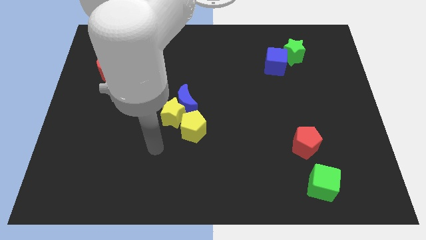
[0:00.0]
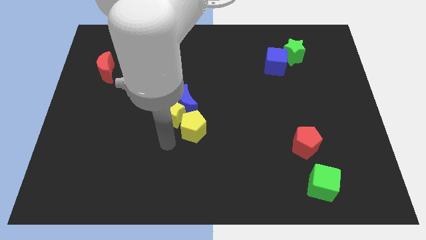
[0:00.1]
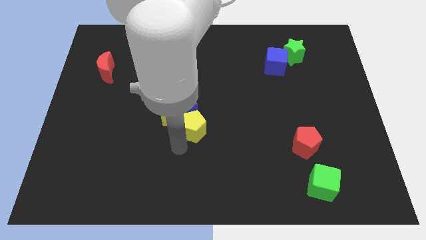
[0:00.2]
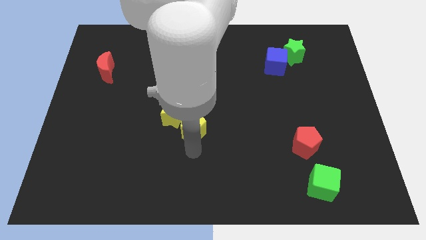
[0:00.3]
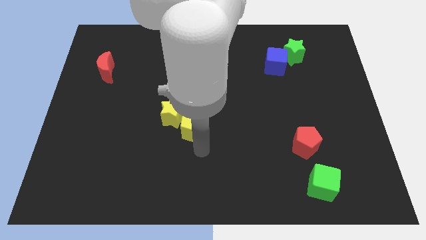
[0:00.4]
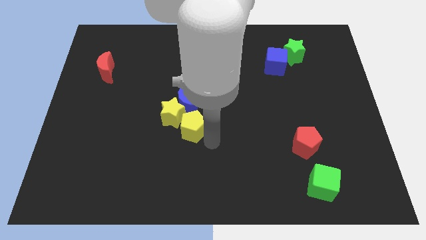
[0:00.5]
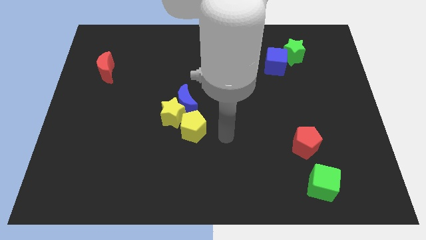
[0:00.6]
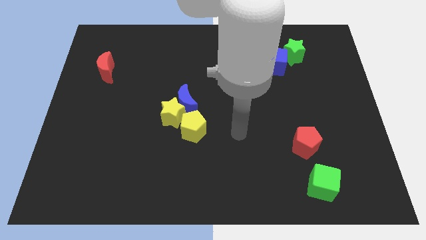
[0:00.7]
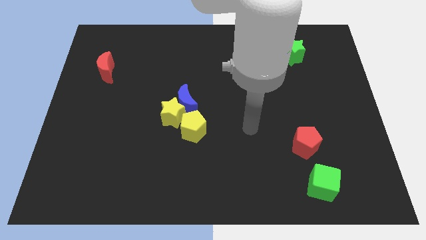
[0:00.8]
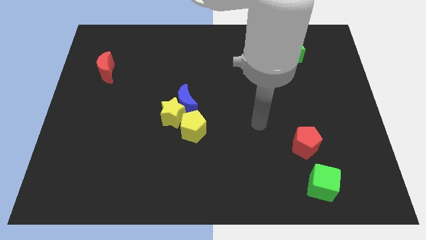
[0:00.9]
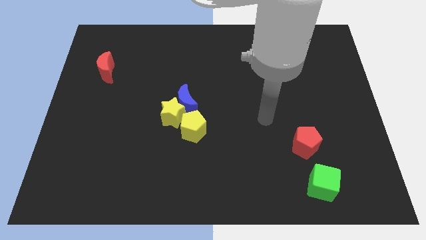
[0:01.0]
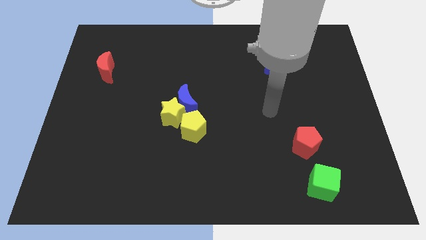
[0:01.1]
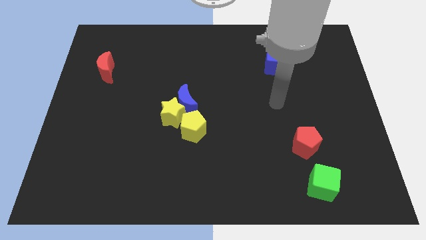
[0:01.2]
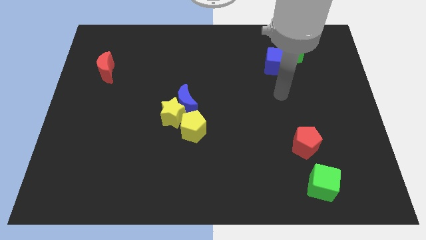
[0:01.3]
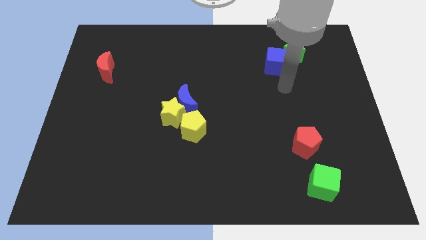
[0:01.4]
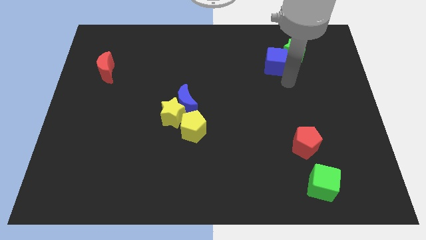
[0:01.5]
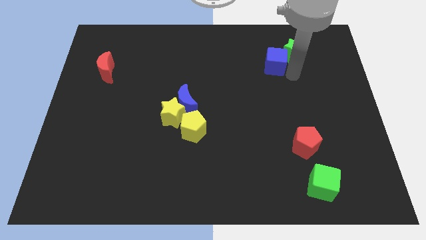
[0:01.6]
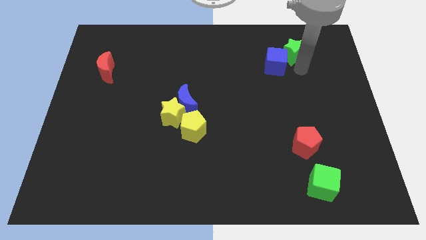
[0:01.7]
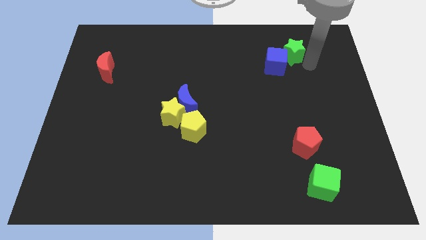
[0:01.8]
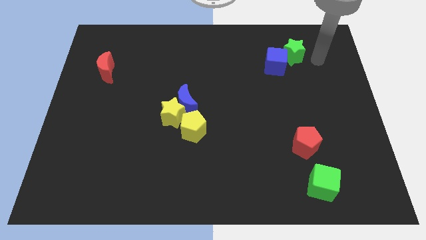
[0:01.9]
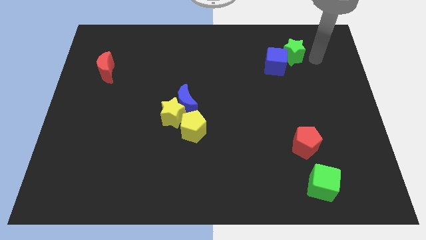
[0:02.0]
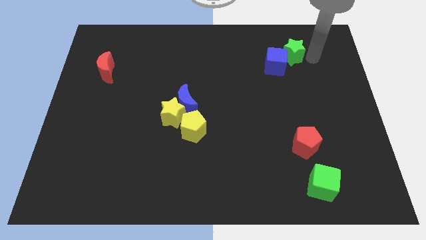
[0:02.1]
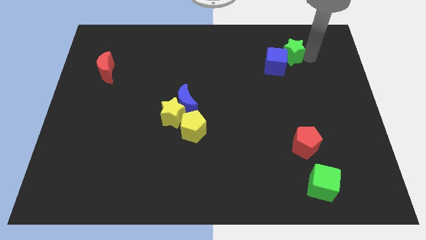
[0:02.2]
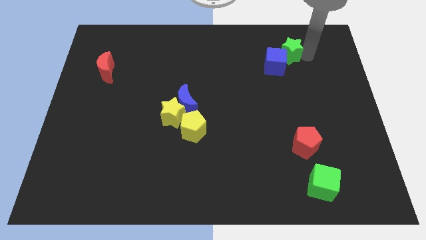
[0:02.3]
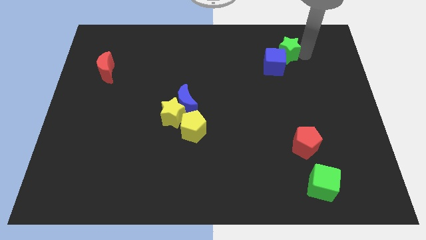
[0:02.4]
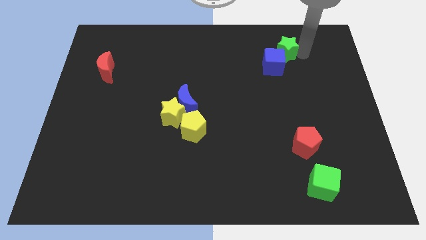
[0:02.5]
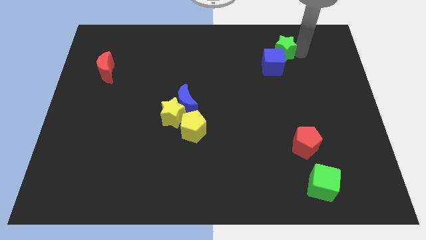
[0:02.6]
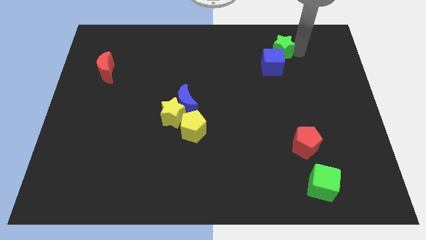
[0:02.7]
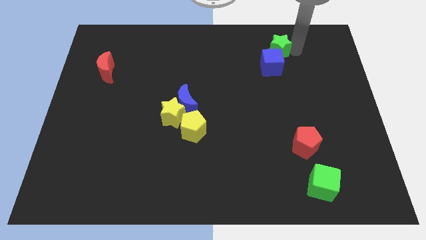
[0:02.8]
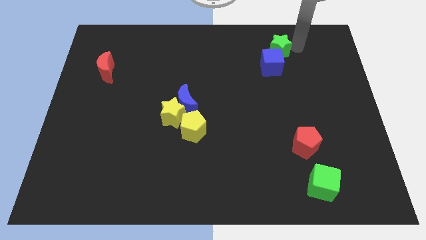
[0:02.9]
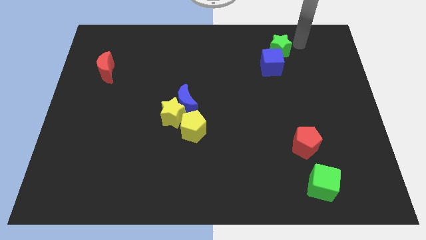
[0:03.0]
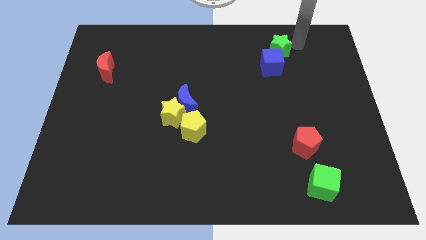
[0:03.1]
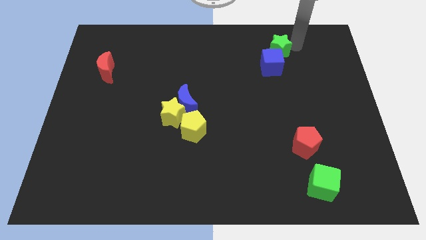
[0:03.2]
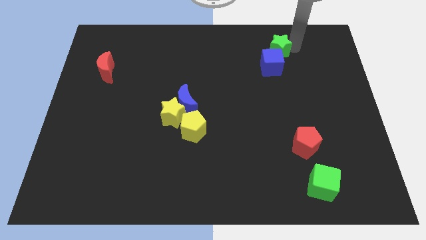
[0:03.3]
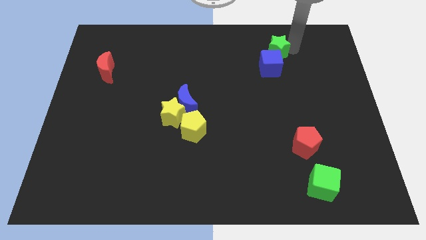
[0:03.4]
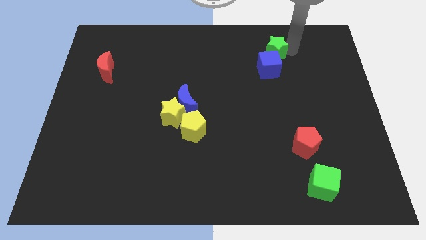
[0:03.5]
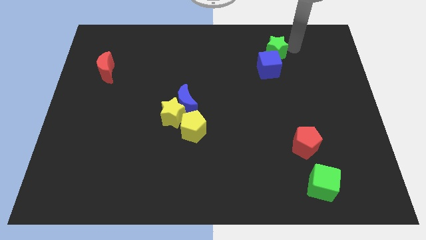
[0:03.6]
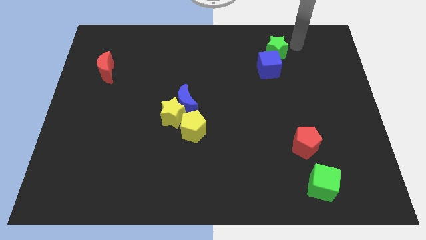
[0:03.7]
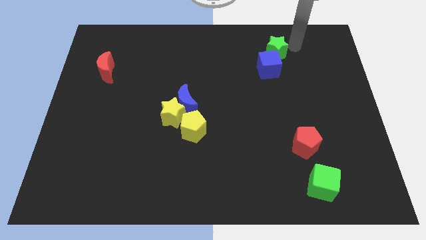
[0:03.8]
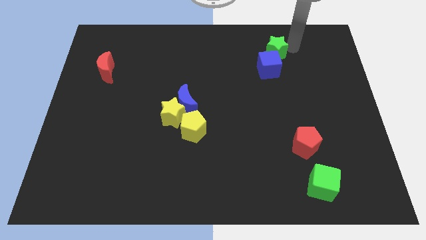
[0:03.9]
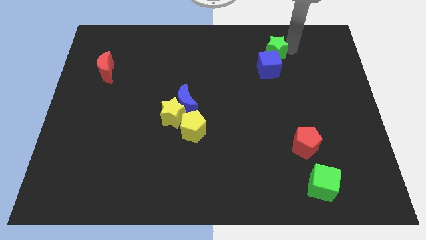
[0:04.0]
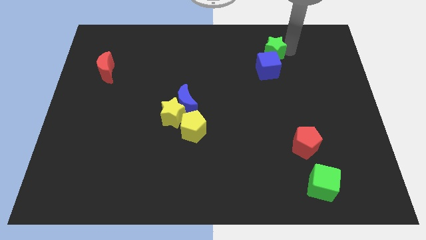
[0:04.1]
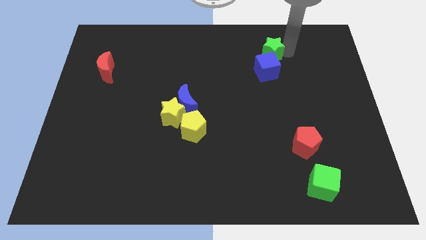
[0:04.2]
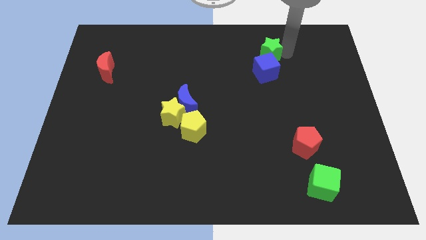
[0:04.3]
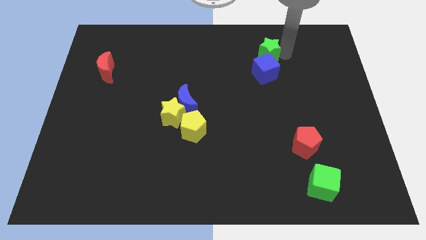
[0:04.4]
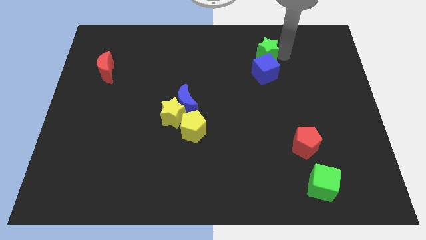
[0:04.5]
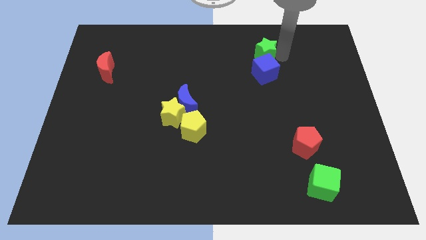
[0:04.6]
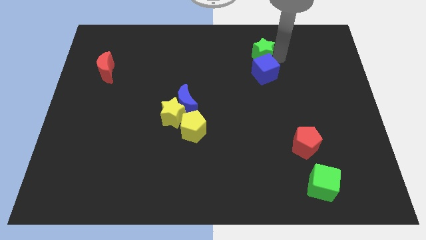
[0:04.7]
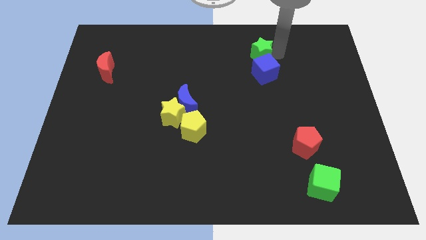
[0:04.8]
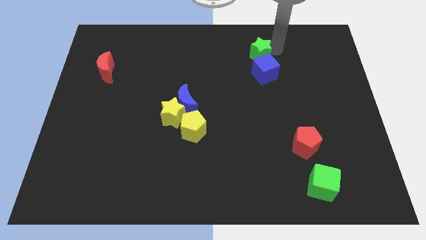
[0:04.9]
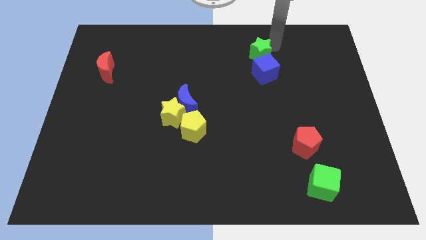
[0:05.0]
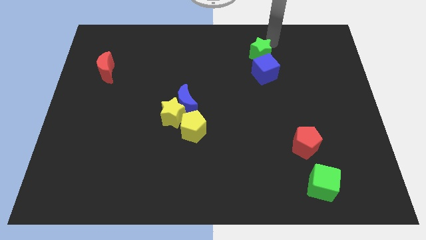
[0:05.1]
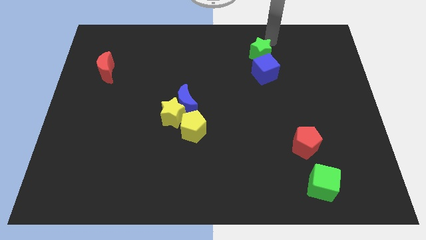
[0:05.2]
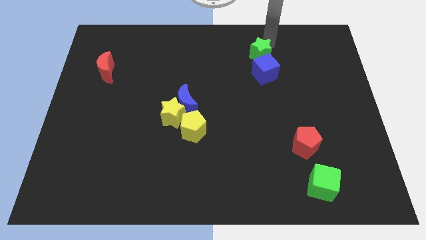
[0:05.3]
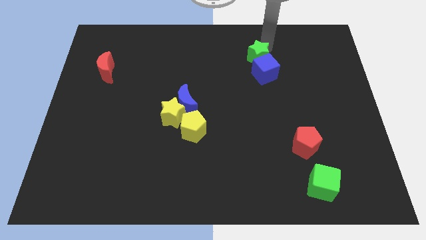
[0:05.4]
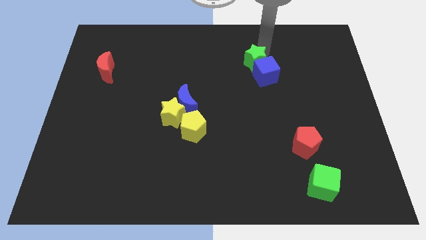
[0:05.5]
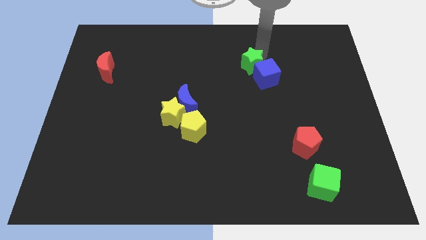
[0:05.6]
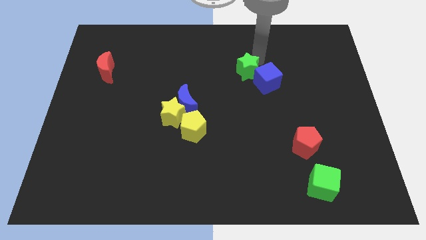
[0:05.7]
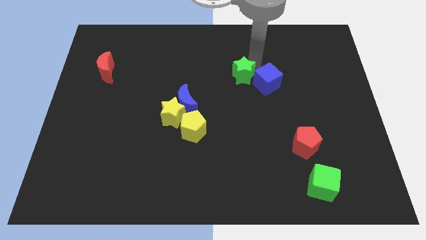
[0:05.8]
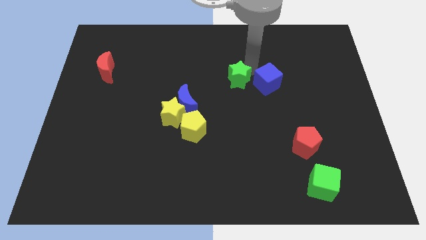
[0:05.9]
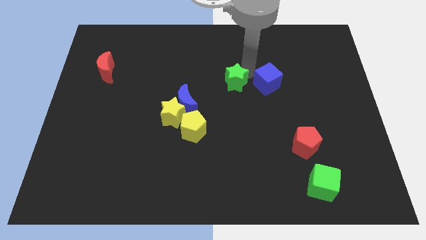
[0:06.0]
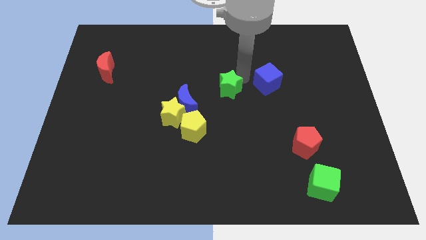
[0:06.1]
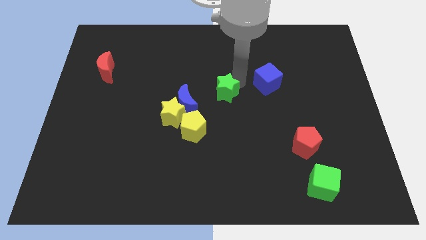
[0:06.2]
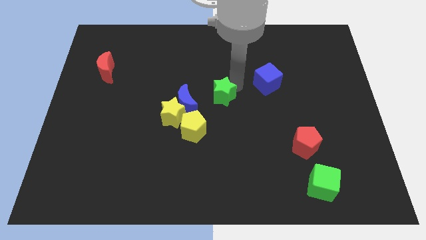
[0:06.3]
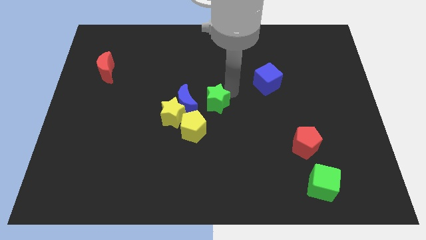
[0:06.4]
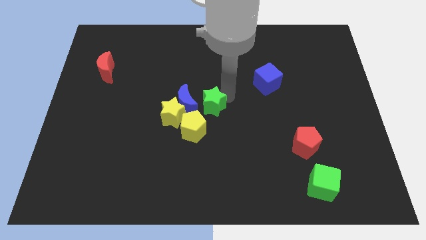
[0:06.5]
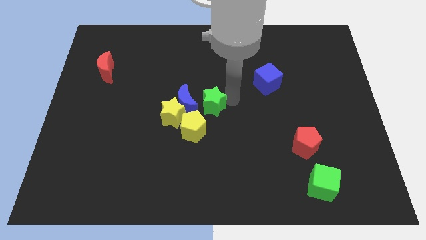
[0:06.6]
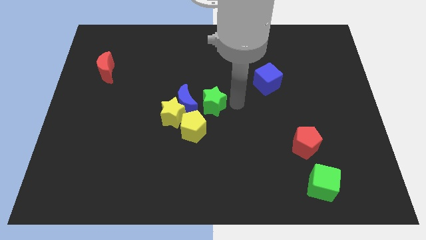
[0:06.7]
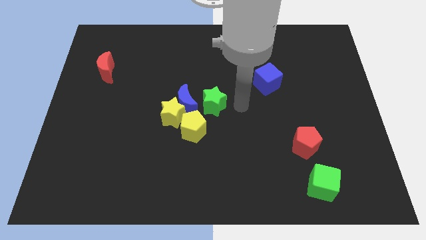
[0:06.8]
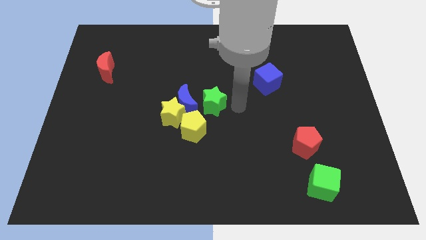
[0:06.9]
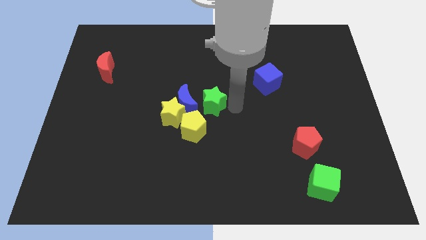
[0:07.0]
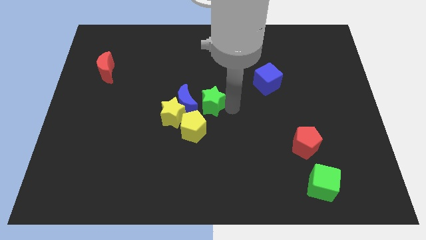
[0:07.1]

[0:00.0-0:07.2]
slide the green star to the blue moon
